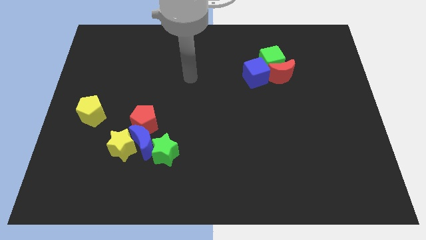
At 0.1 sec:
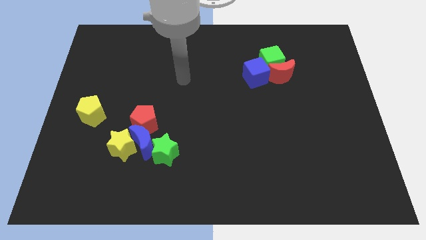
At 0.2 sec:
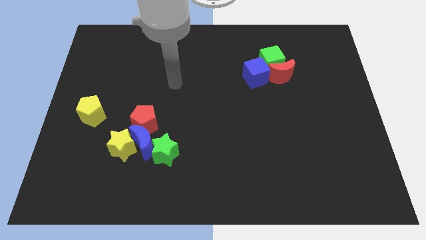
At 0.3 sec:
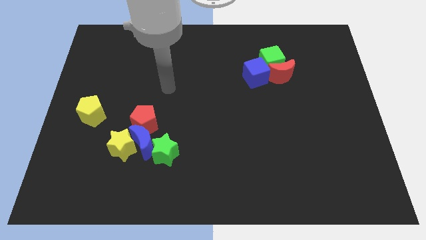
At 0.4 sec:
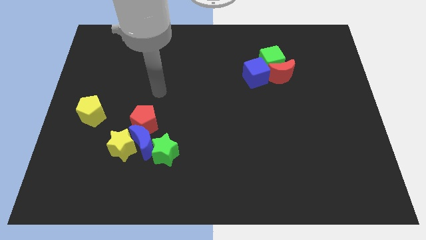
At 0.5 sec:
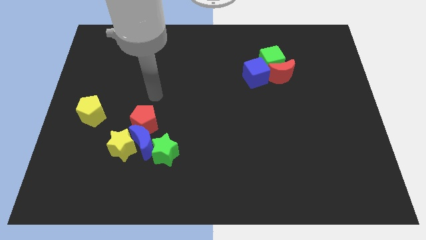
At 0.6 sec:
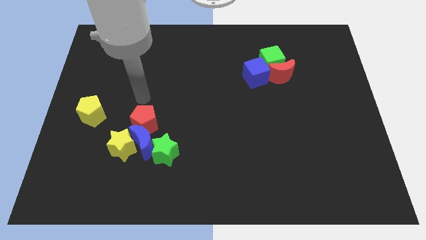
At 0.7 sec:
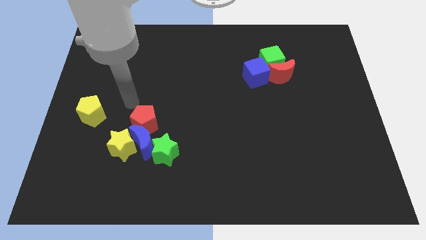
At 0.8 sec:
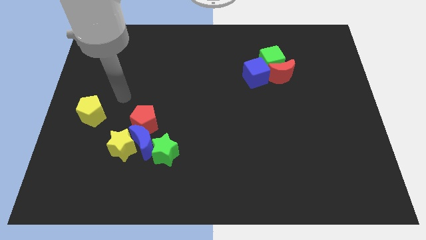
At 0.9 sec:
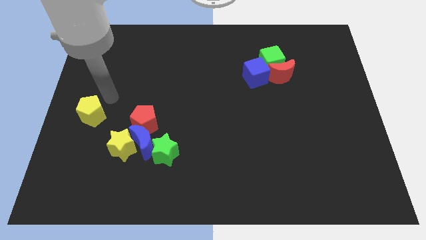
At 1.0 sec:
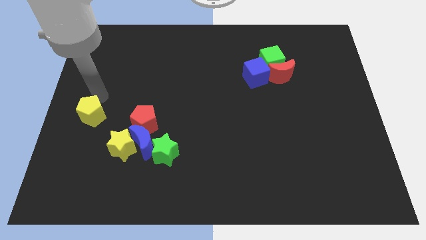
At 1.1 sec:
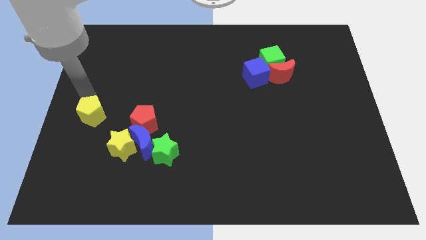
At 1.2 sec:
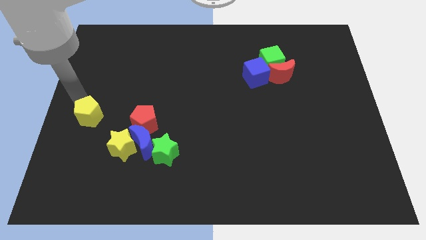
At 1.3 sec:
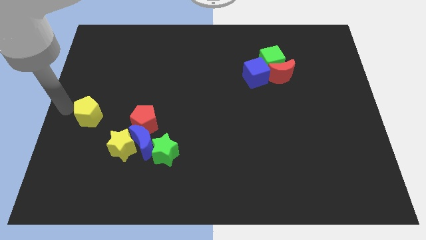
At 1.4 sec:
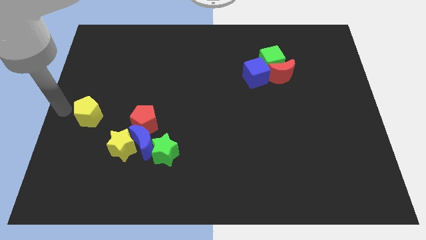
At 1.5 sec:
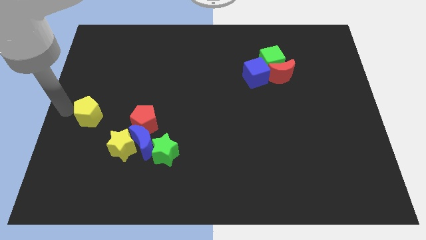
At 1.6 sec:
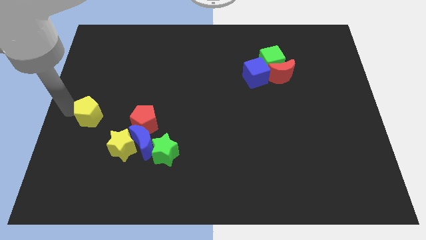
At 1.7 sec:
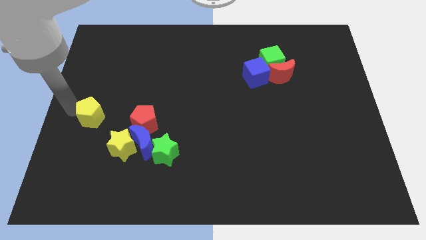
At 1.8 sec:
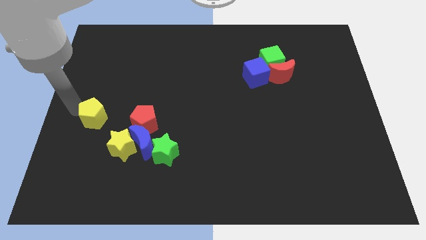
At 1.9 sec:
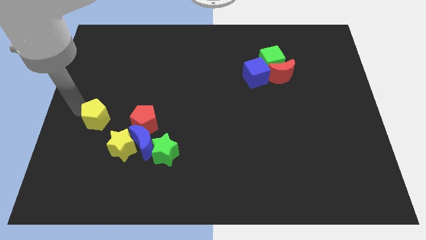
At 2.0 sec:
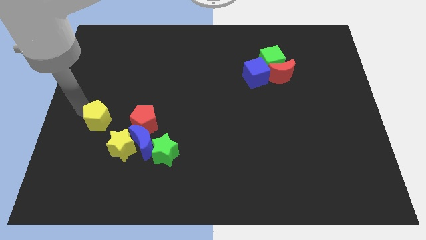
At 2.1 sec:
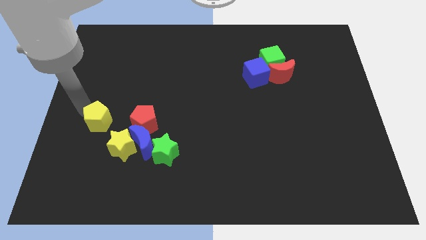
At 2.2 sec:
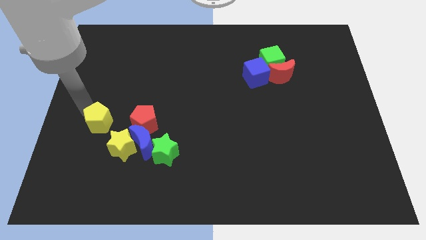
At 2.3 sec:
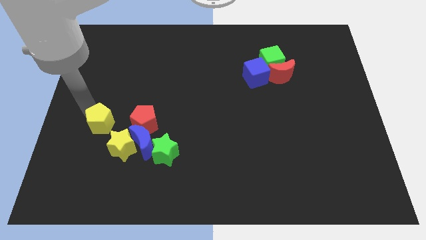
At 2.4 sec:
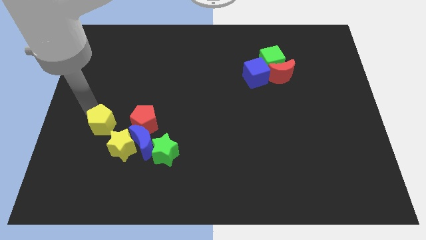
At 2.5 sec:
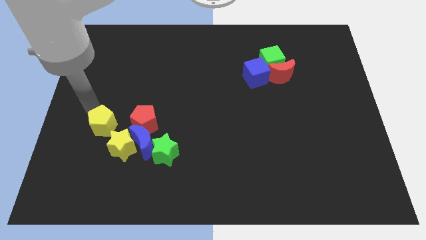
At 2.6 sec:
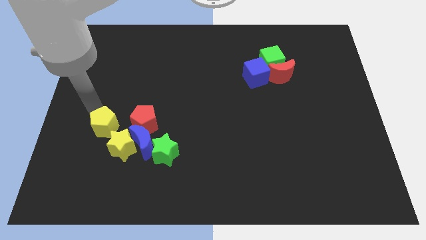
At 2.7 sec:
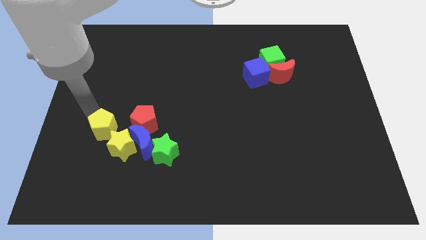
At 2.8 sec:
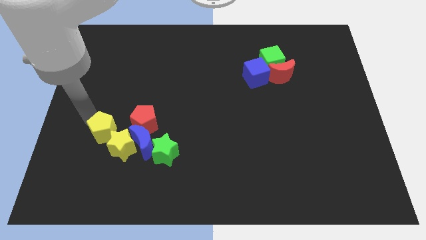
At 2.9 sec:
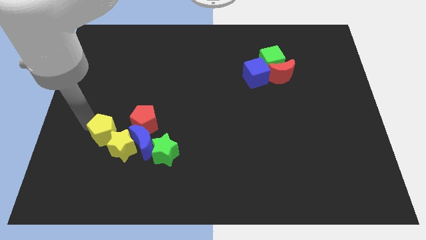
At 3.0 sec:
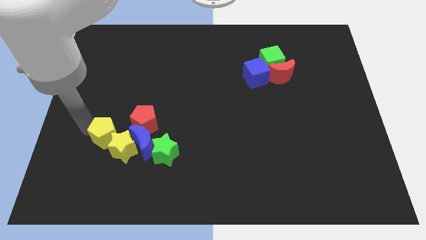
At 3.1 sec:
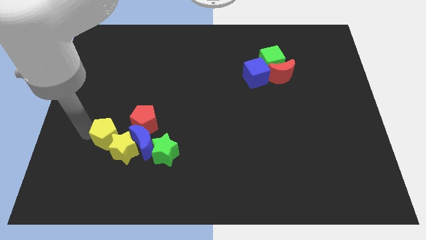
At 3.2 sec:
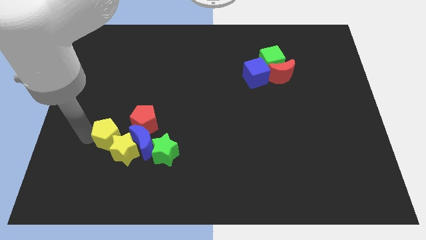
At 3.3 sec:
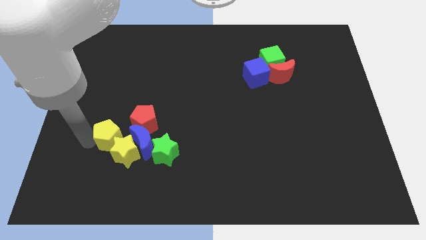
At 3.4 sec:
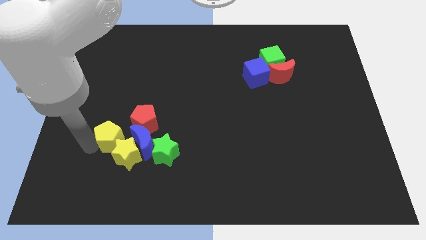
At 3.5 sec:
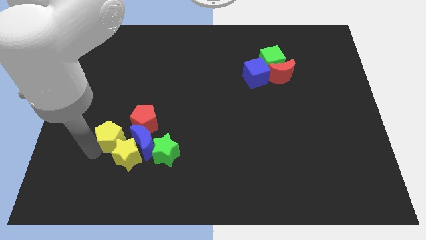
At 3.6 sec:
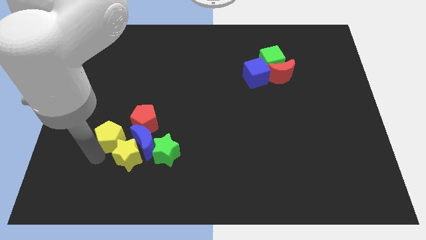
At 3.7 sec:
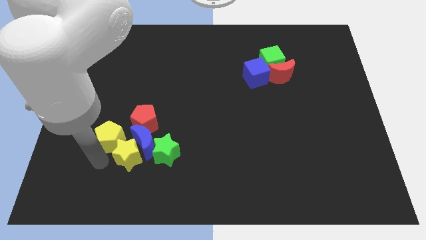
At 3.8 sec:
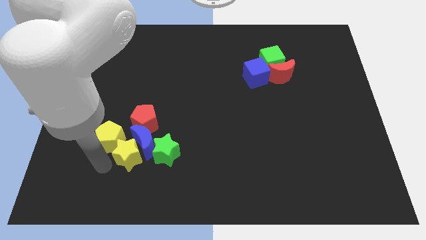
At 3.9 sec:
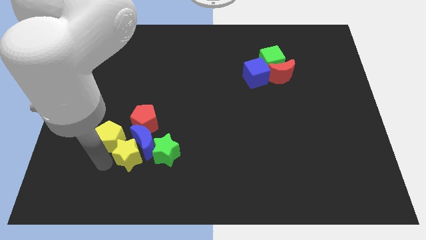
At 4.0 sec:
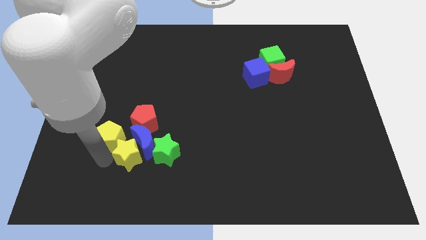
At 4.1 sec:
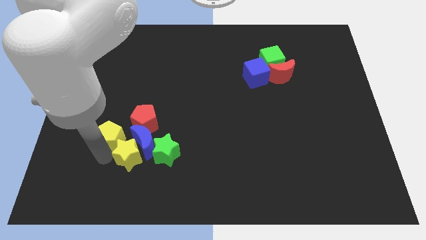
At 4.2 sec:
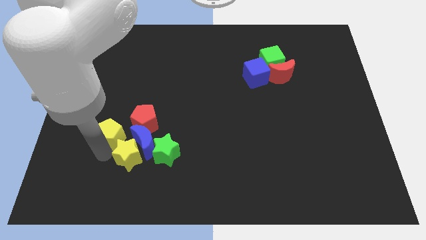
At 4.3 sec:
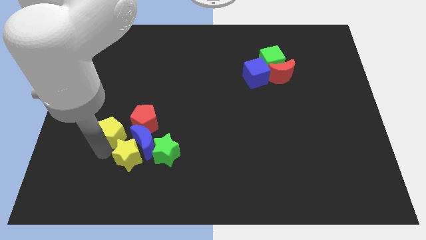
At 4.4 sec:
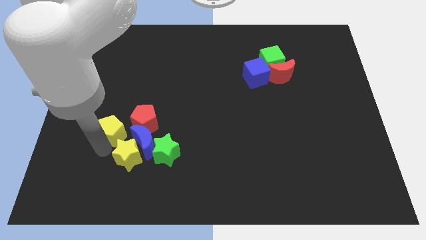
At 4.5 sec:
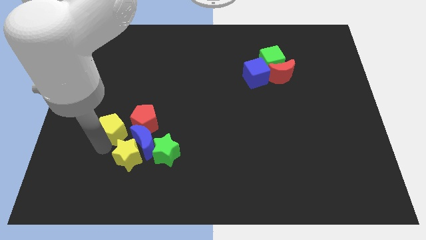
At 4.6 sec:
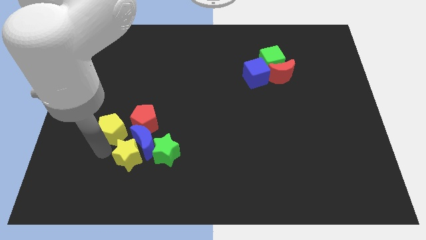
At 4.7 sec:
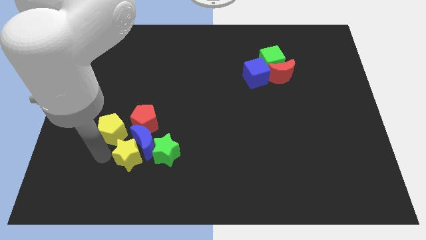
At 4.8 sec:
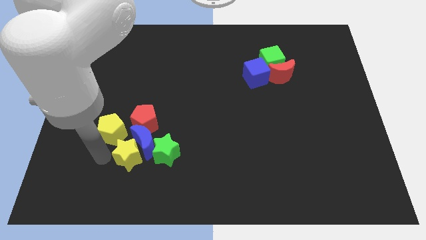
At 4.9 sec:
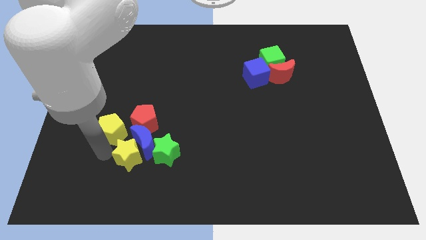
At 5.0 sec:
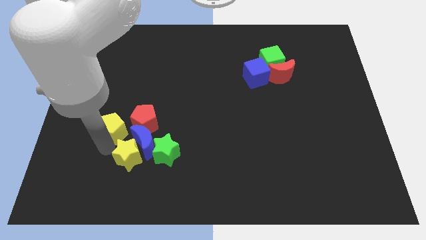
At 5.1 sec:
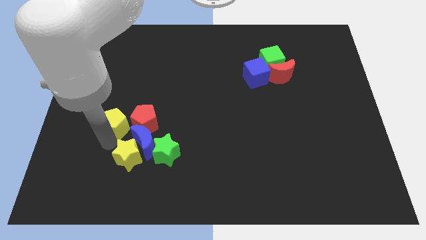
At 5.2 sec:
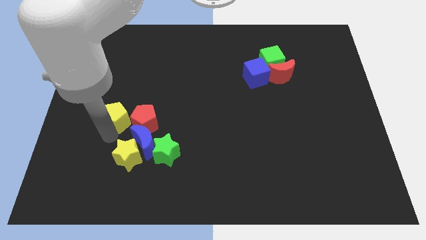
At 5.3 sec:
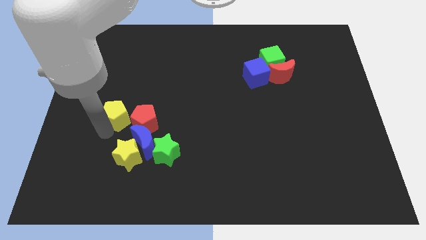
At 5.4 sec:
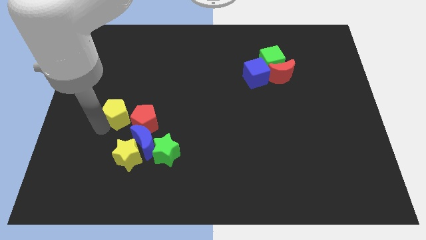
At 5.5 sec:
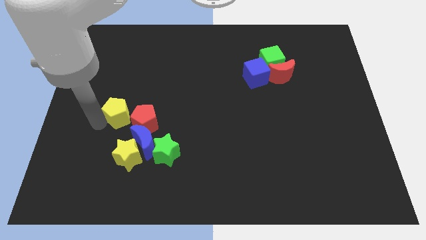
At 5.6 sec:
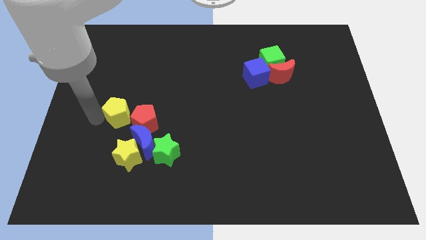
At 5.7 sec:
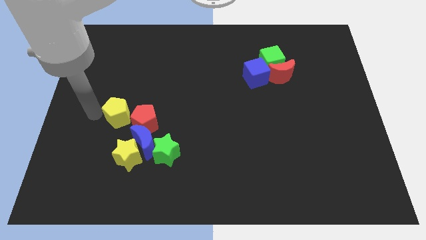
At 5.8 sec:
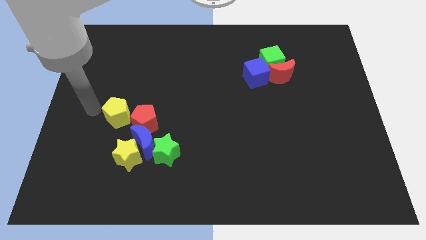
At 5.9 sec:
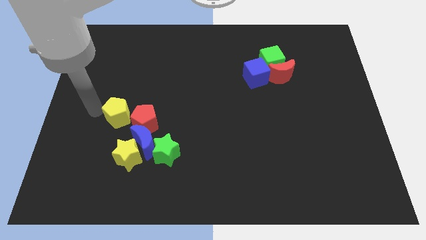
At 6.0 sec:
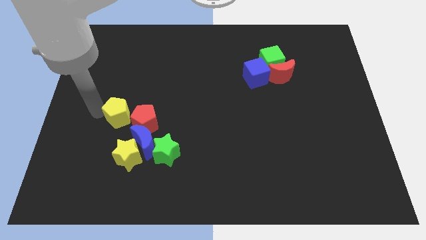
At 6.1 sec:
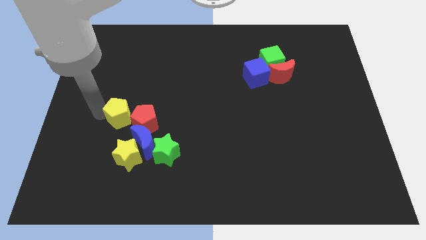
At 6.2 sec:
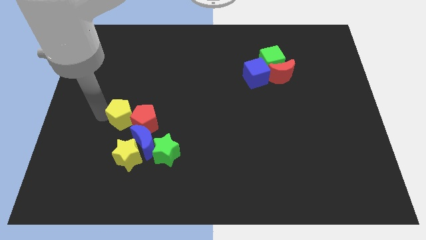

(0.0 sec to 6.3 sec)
push the yellow pentagon to the red pentagon

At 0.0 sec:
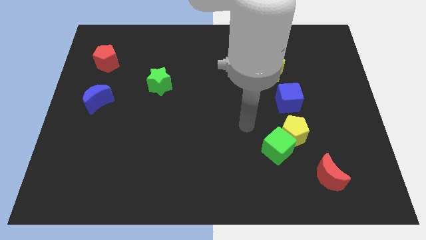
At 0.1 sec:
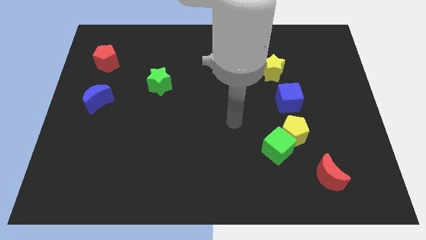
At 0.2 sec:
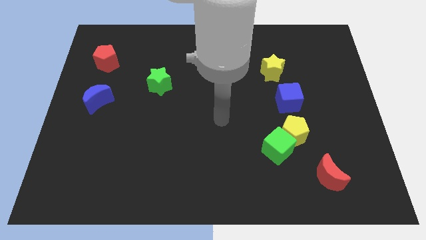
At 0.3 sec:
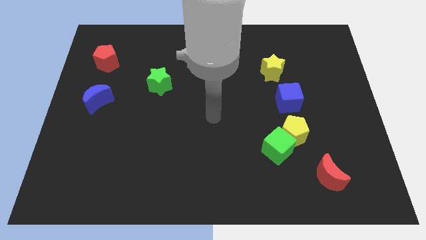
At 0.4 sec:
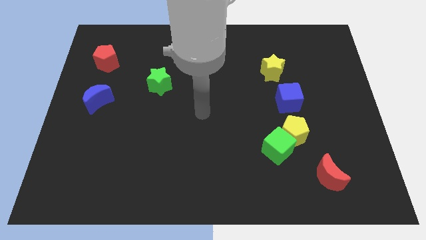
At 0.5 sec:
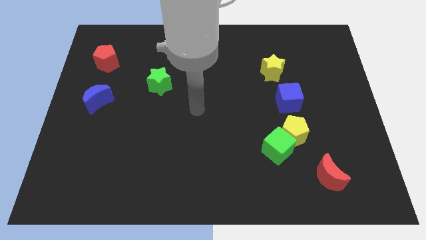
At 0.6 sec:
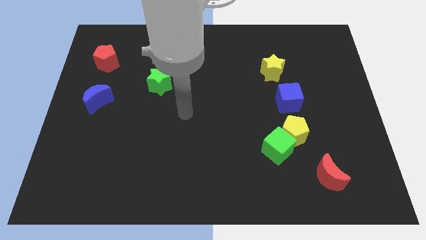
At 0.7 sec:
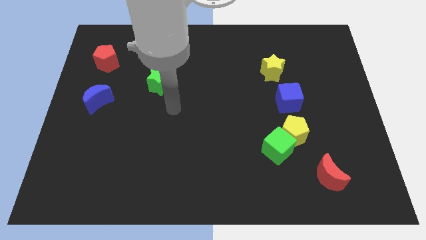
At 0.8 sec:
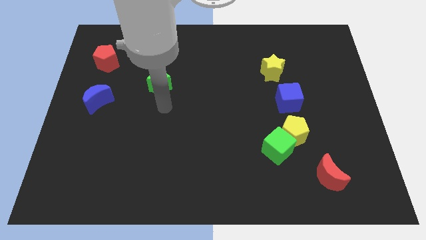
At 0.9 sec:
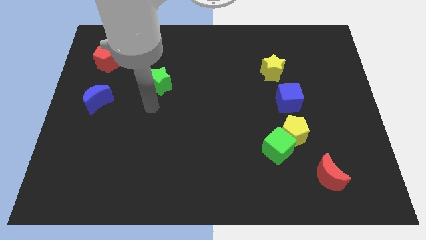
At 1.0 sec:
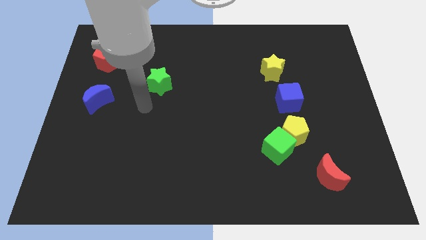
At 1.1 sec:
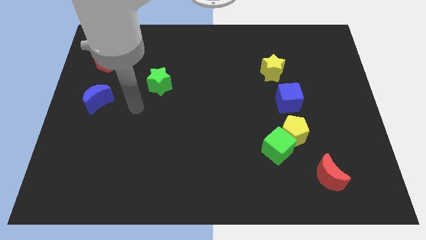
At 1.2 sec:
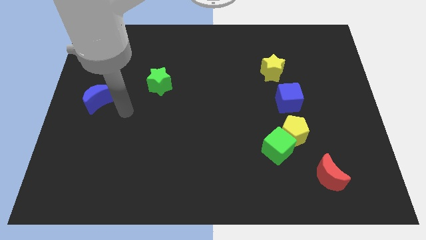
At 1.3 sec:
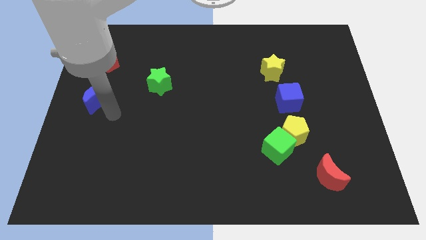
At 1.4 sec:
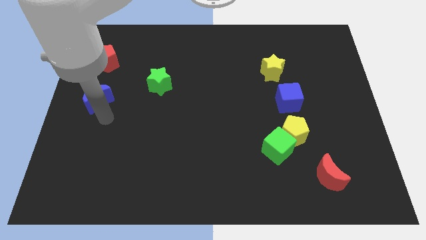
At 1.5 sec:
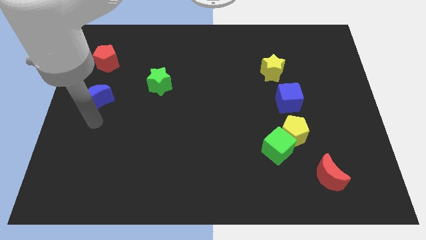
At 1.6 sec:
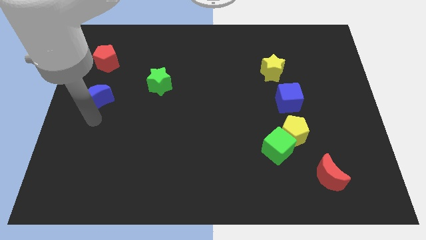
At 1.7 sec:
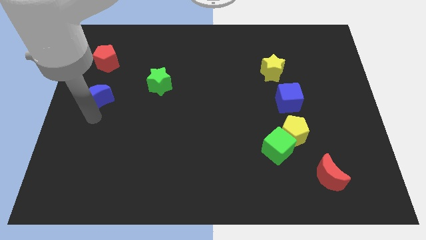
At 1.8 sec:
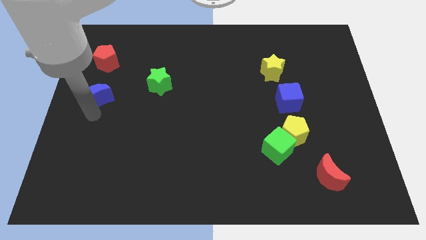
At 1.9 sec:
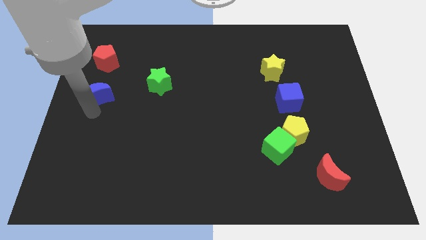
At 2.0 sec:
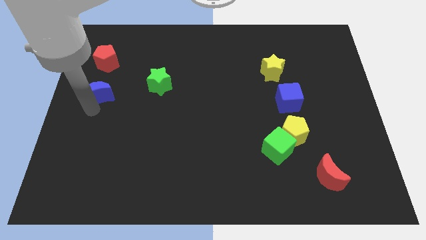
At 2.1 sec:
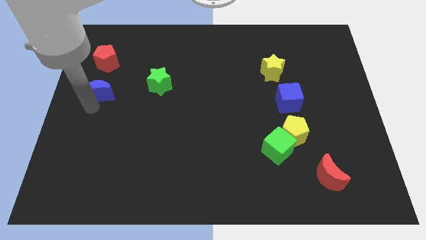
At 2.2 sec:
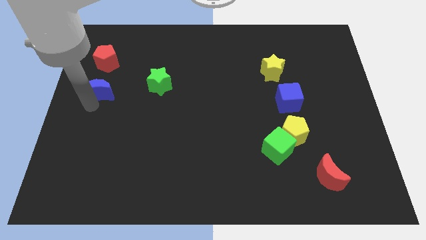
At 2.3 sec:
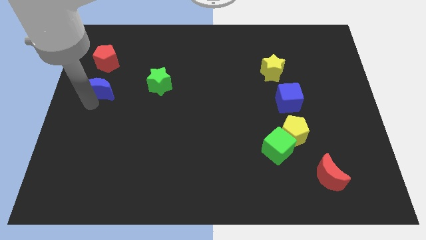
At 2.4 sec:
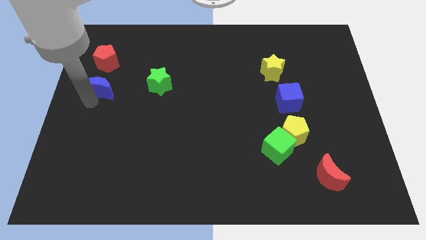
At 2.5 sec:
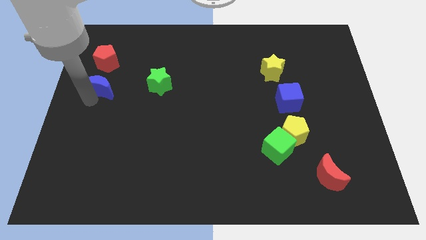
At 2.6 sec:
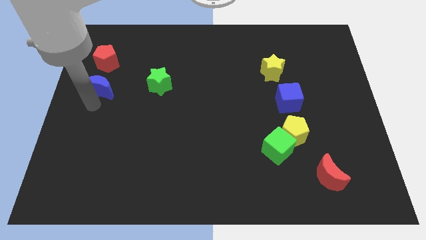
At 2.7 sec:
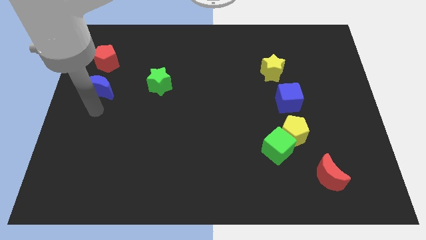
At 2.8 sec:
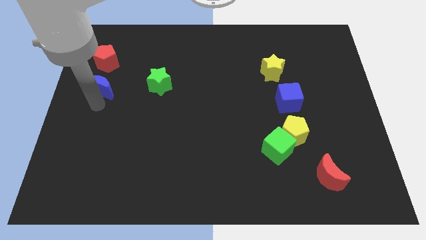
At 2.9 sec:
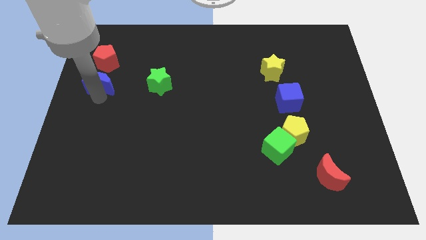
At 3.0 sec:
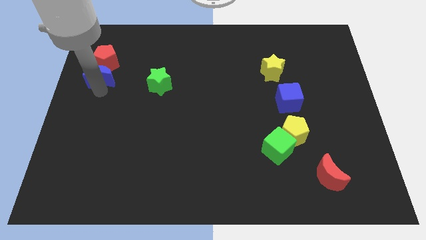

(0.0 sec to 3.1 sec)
push the blue moon to the red pentagon
